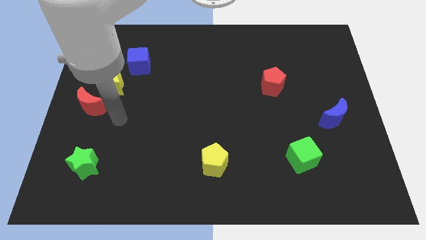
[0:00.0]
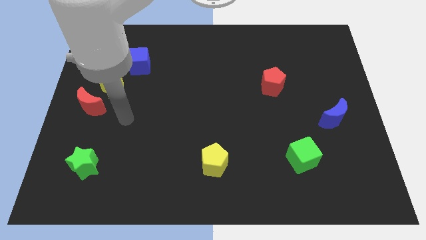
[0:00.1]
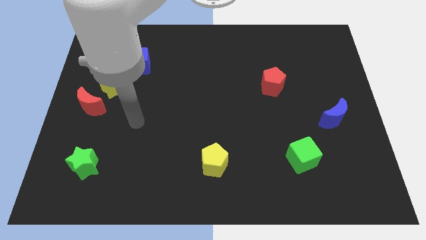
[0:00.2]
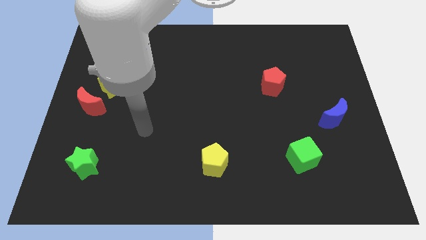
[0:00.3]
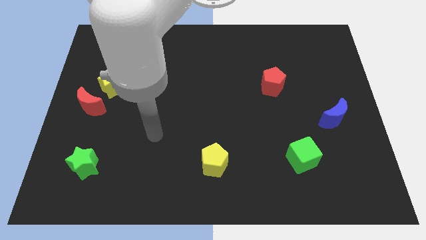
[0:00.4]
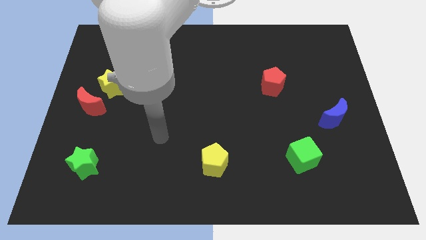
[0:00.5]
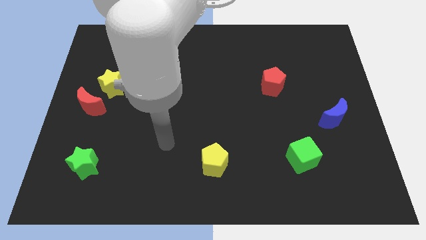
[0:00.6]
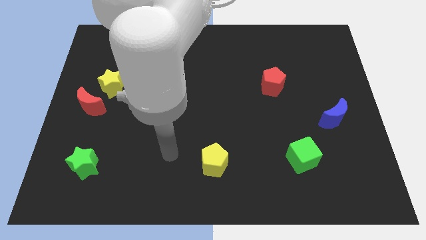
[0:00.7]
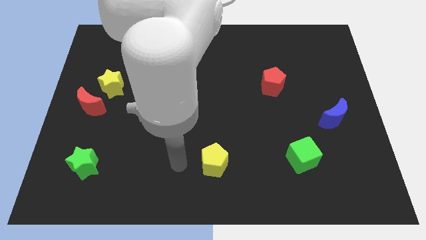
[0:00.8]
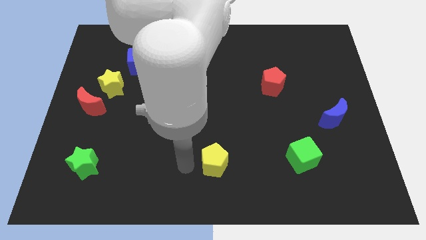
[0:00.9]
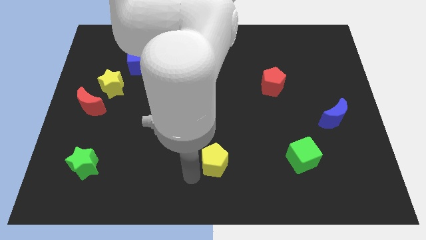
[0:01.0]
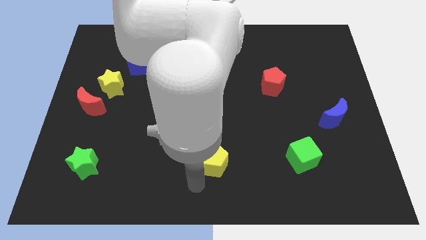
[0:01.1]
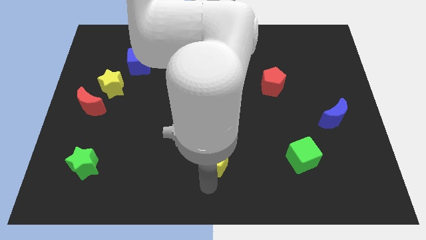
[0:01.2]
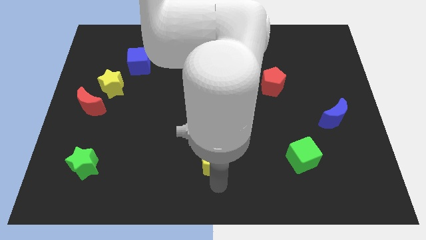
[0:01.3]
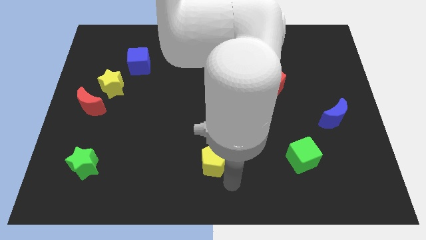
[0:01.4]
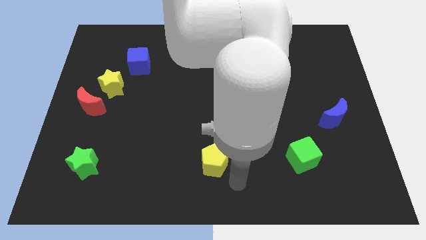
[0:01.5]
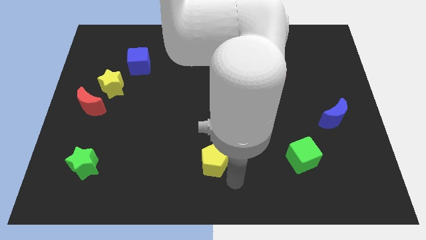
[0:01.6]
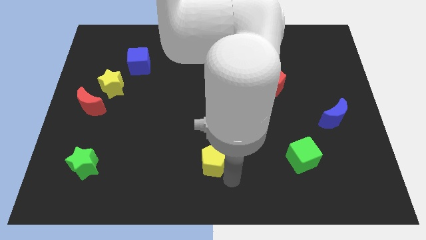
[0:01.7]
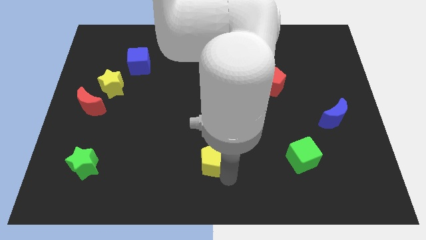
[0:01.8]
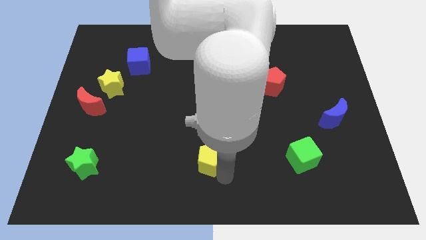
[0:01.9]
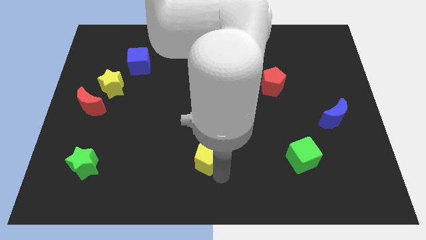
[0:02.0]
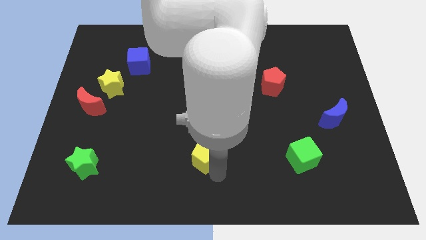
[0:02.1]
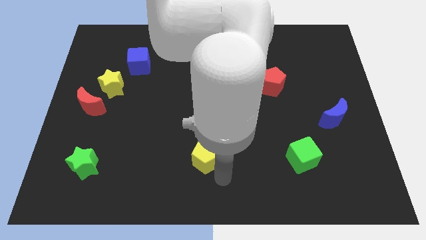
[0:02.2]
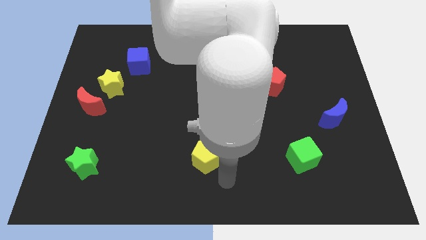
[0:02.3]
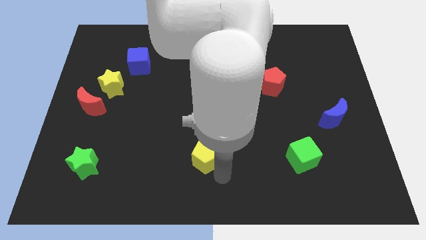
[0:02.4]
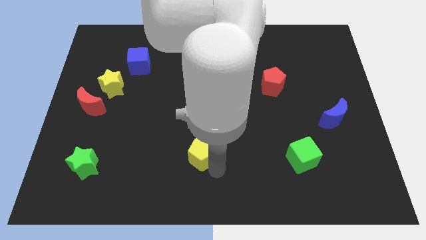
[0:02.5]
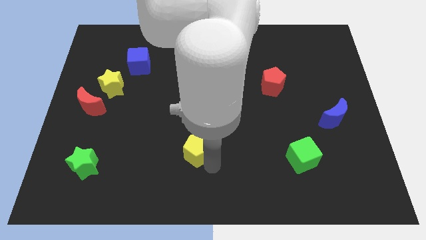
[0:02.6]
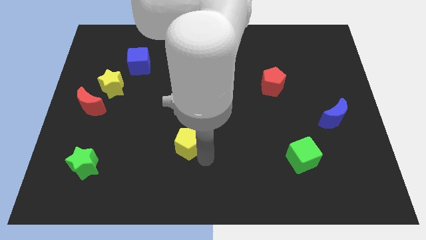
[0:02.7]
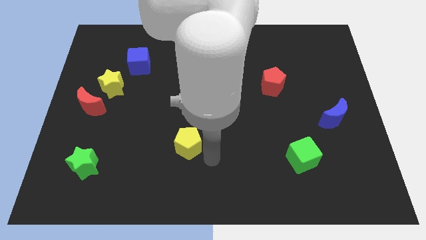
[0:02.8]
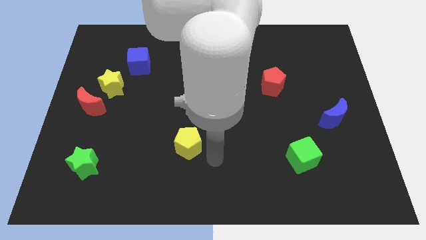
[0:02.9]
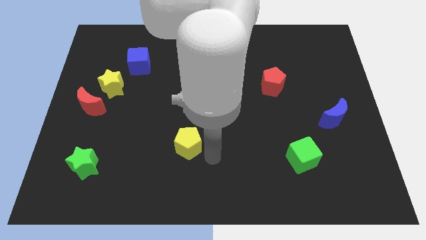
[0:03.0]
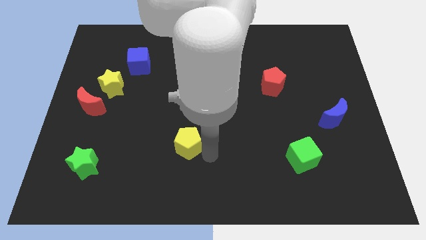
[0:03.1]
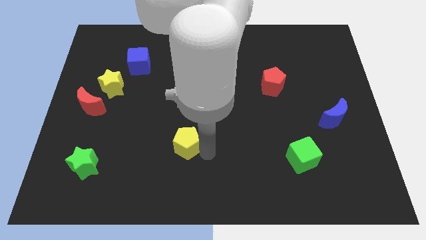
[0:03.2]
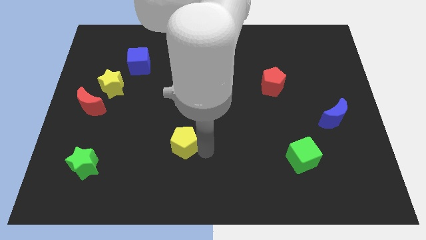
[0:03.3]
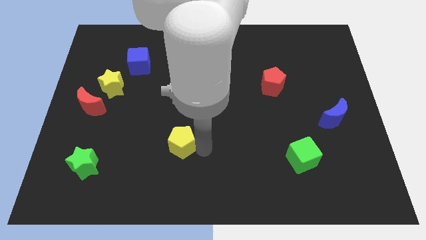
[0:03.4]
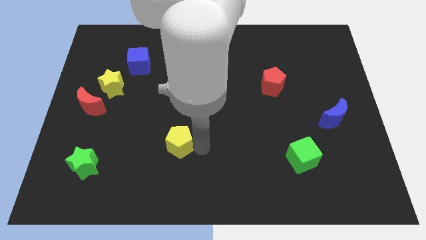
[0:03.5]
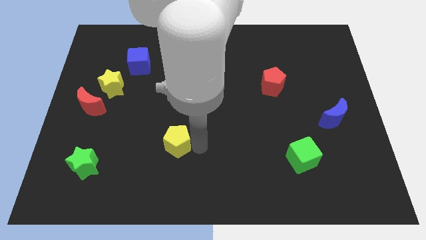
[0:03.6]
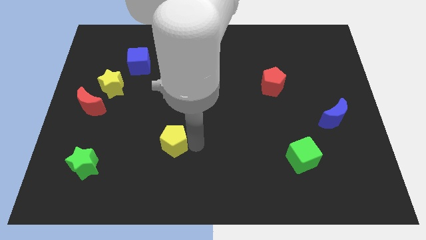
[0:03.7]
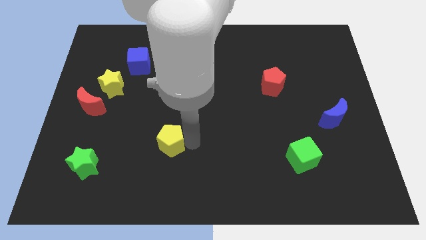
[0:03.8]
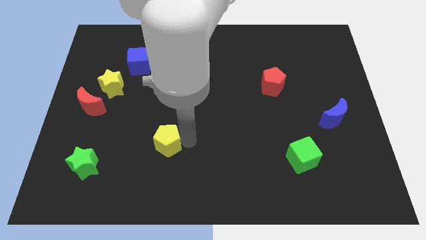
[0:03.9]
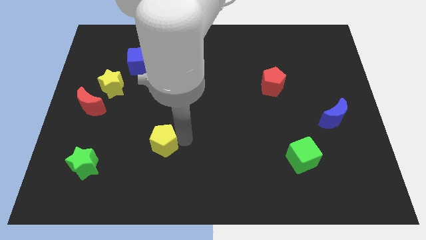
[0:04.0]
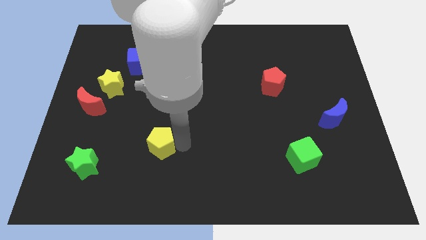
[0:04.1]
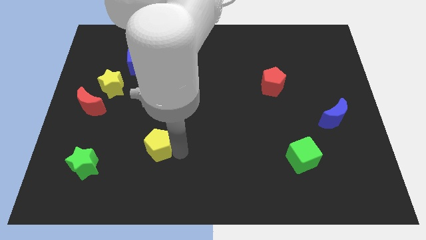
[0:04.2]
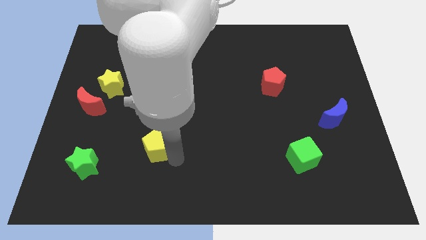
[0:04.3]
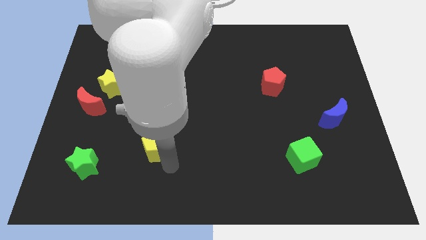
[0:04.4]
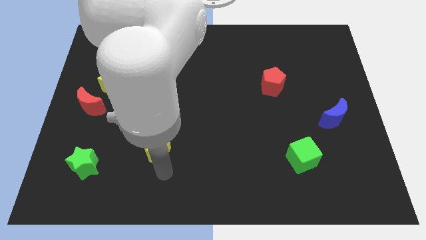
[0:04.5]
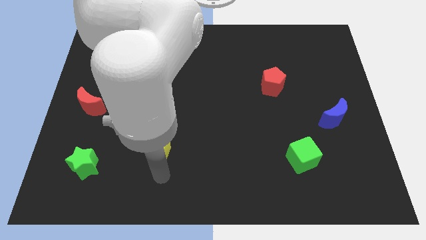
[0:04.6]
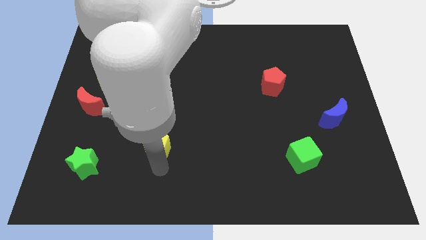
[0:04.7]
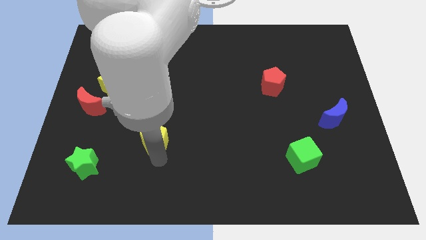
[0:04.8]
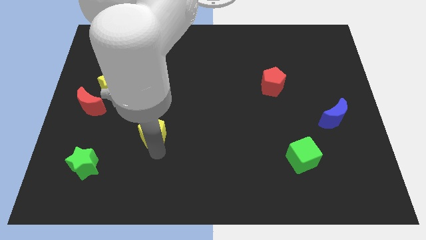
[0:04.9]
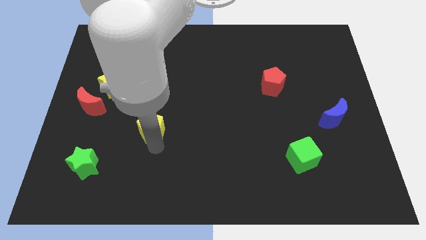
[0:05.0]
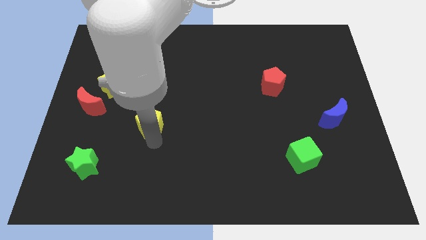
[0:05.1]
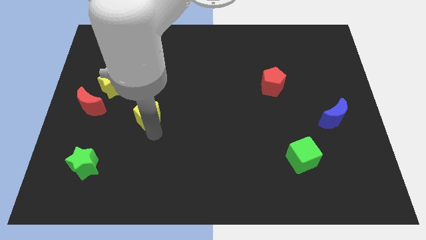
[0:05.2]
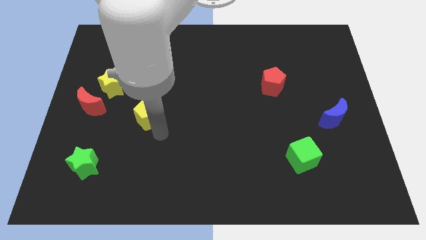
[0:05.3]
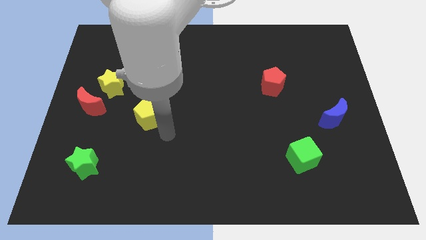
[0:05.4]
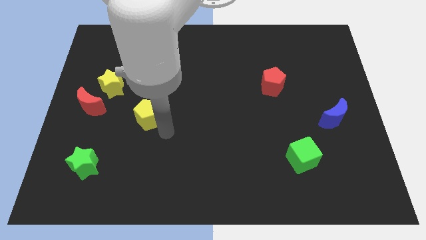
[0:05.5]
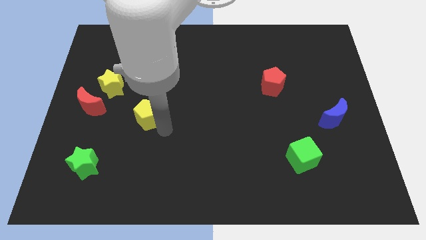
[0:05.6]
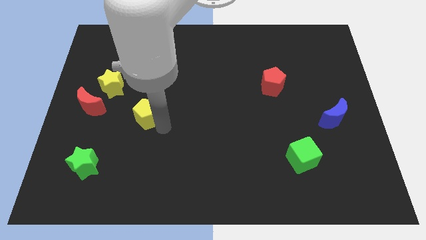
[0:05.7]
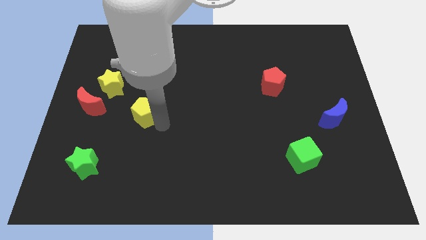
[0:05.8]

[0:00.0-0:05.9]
move the yellow pentagon to the bottom right of the yellow star

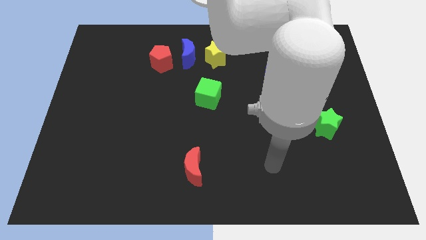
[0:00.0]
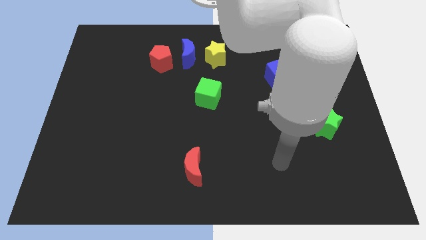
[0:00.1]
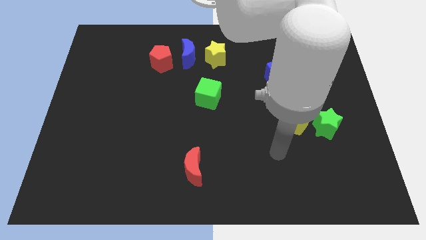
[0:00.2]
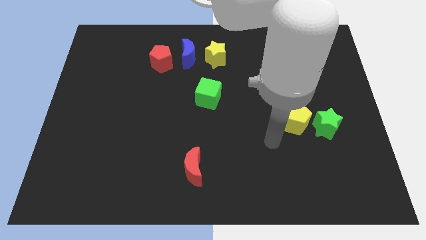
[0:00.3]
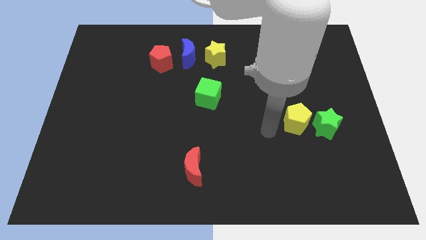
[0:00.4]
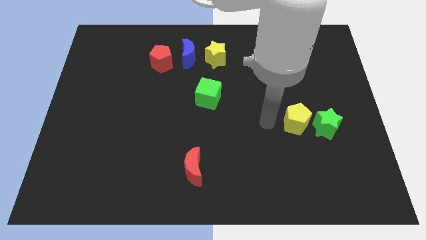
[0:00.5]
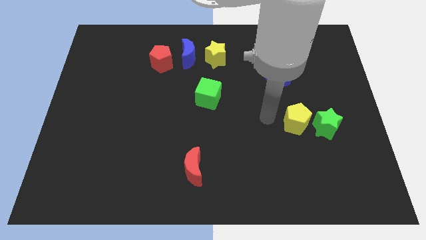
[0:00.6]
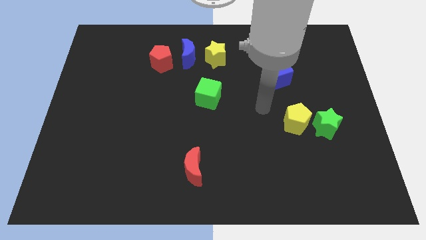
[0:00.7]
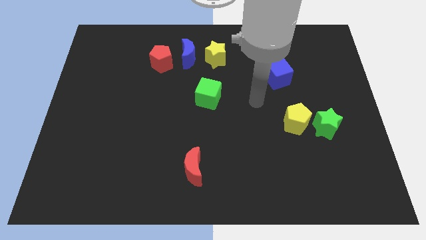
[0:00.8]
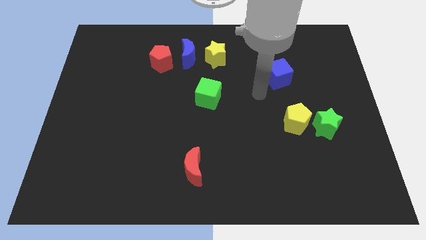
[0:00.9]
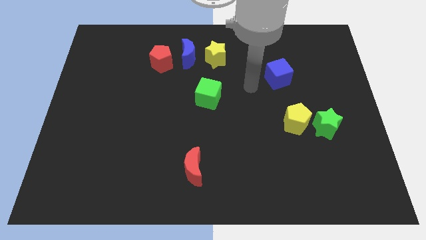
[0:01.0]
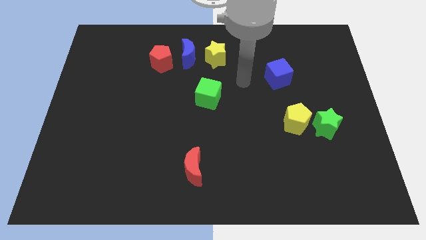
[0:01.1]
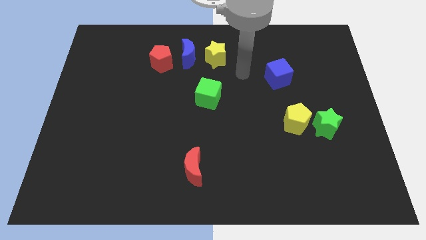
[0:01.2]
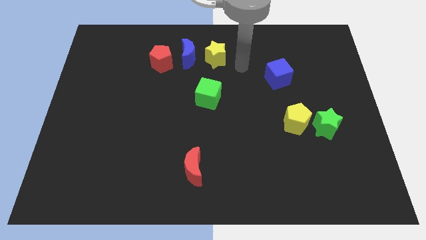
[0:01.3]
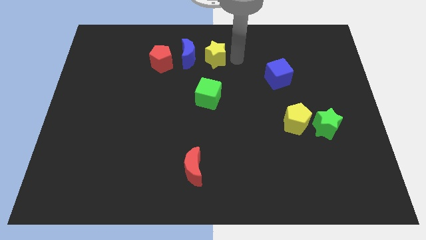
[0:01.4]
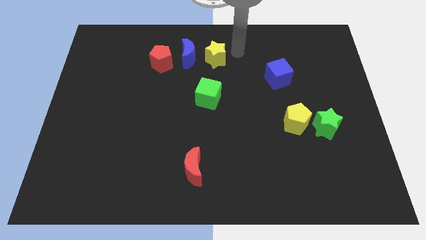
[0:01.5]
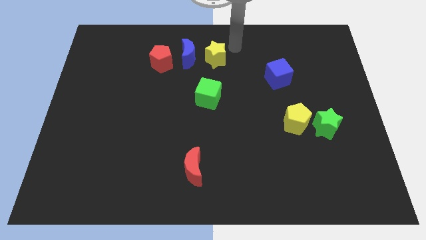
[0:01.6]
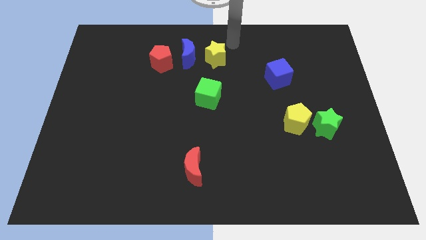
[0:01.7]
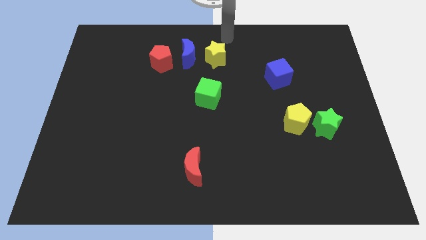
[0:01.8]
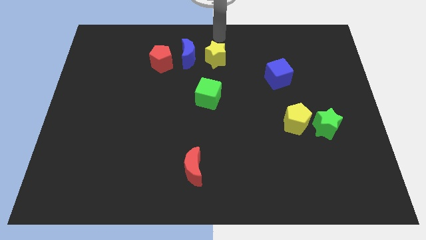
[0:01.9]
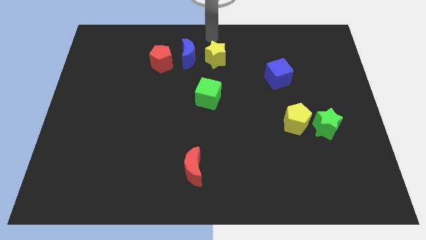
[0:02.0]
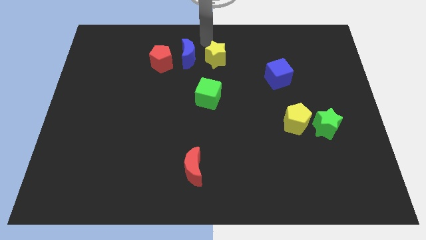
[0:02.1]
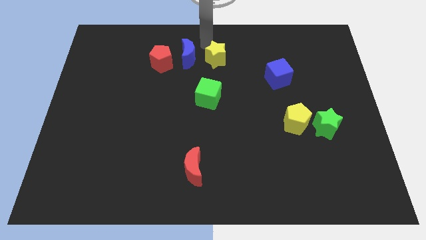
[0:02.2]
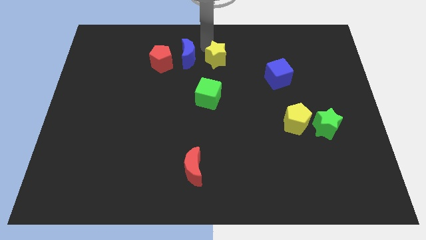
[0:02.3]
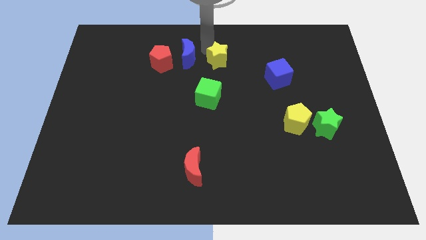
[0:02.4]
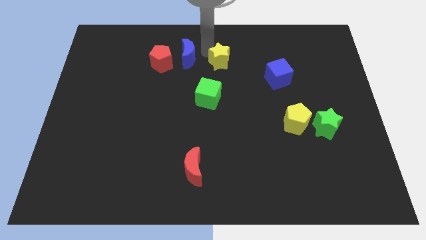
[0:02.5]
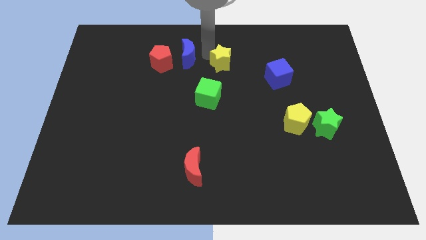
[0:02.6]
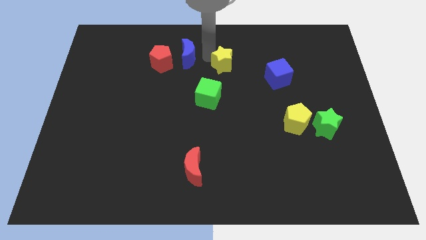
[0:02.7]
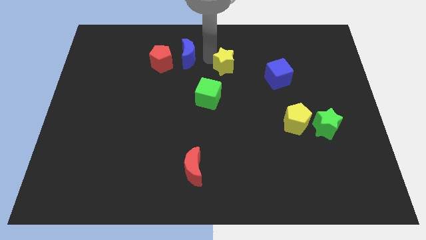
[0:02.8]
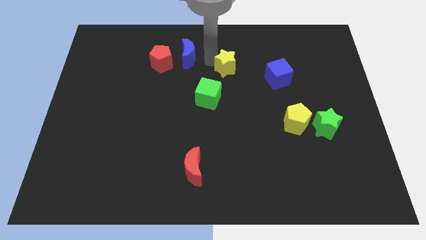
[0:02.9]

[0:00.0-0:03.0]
slide the yellow star to the top right side of the green cube
